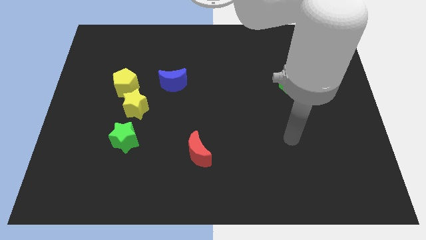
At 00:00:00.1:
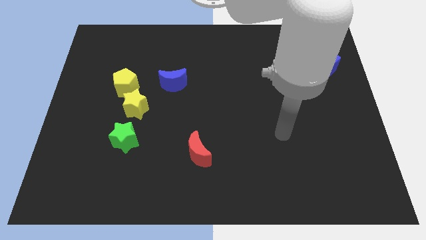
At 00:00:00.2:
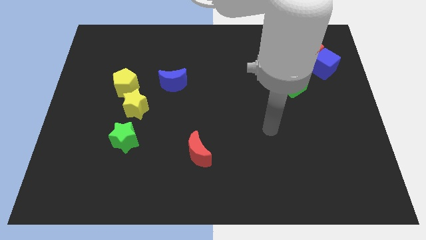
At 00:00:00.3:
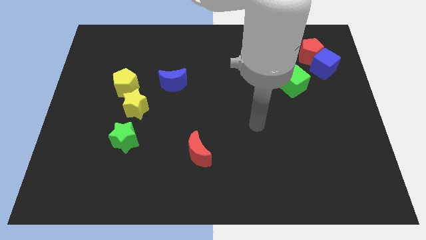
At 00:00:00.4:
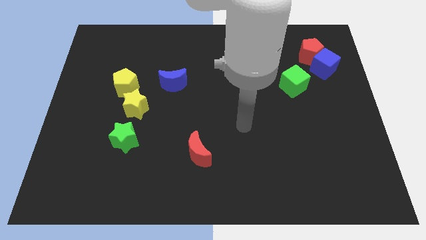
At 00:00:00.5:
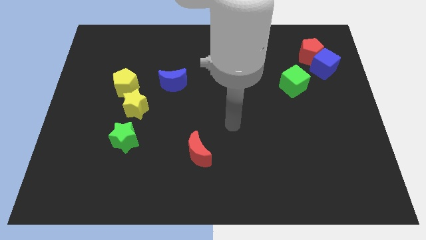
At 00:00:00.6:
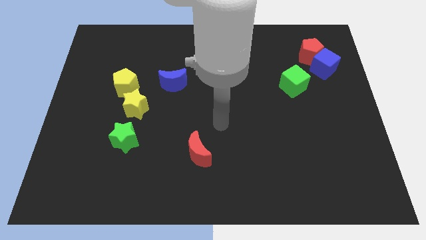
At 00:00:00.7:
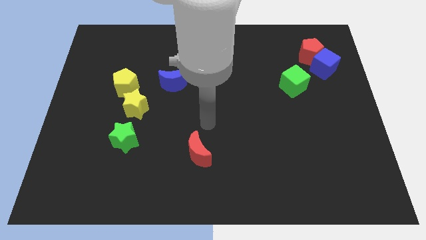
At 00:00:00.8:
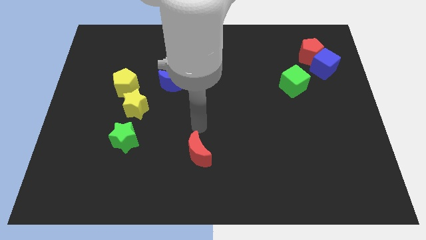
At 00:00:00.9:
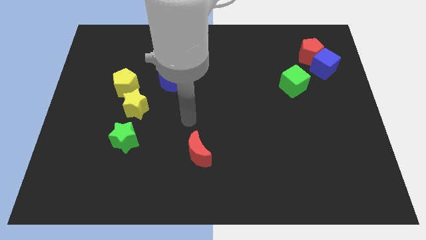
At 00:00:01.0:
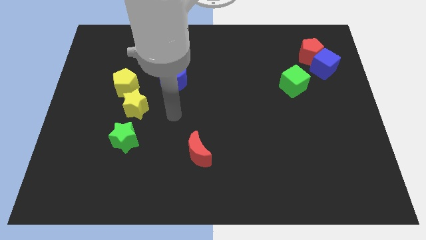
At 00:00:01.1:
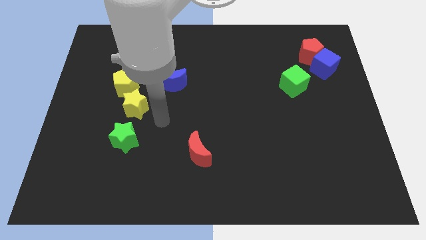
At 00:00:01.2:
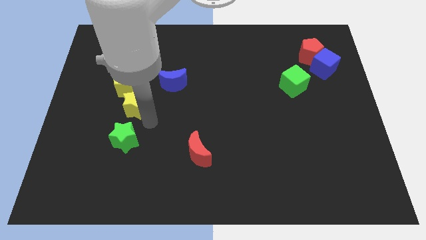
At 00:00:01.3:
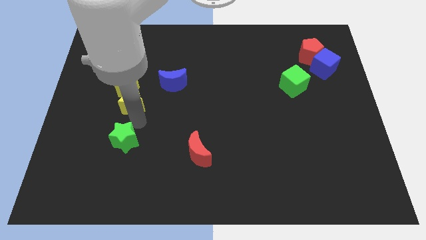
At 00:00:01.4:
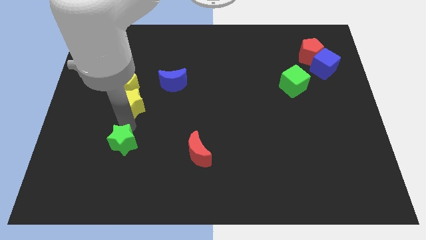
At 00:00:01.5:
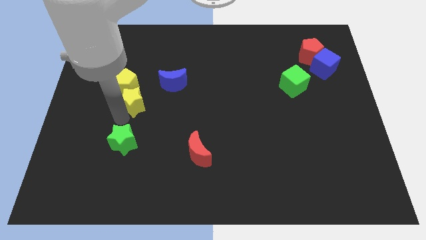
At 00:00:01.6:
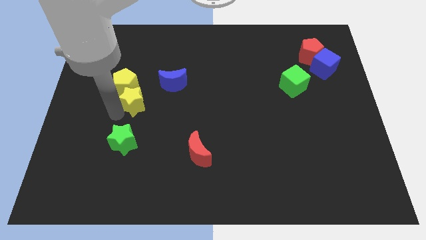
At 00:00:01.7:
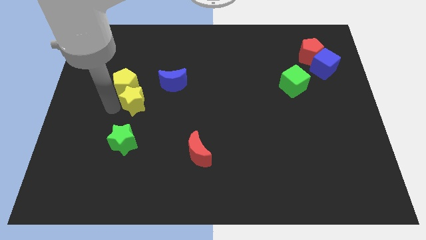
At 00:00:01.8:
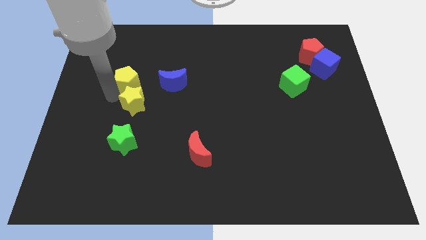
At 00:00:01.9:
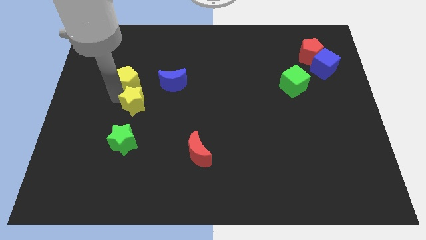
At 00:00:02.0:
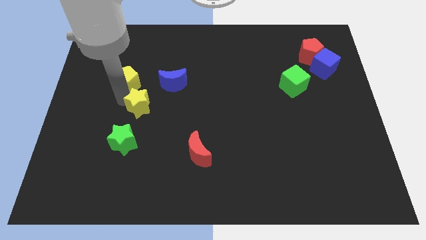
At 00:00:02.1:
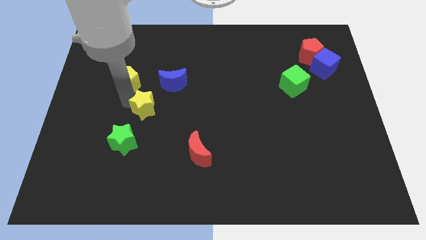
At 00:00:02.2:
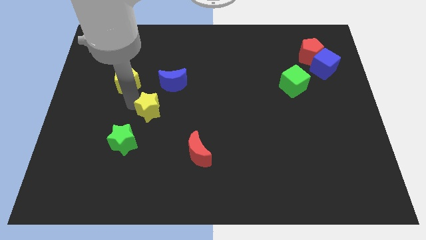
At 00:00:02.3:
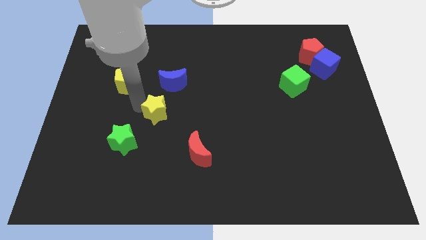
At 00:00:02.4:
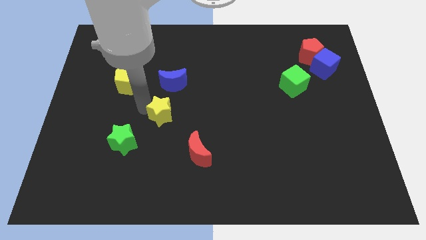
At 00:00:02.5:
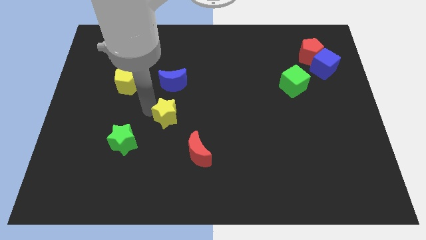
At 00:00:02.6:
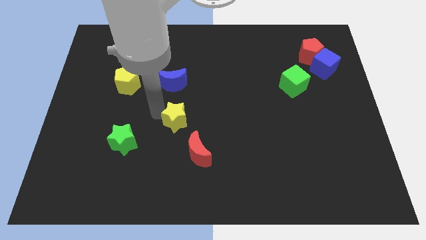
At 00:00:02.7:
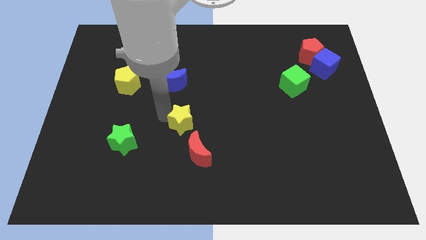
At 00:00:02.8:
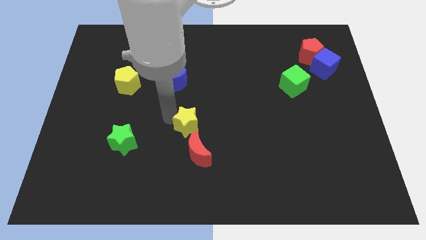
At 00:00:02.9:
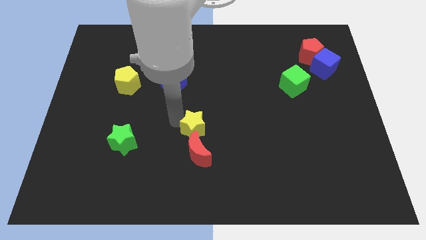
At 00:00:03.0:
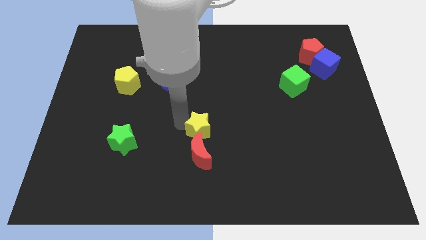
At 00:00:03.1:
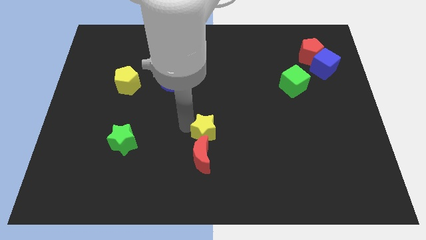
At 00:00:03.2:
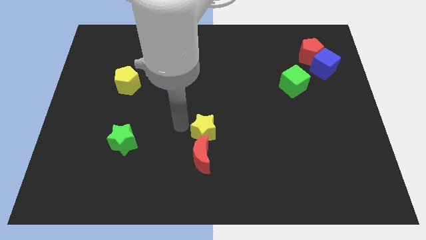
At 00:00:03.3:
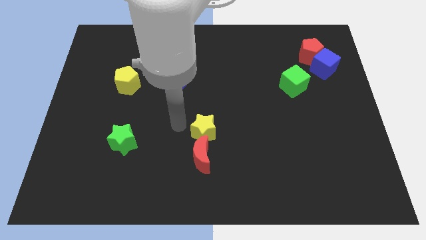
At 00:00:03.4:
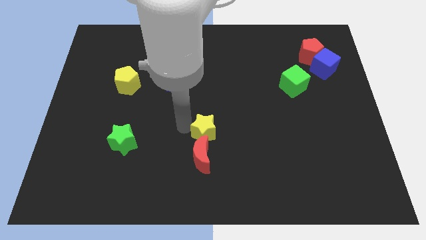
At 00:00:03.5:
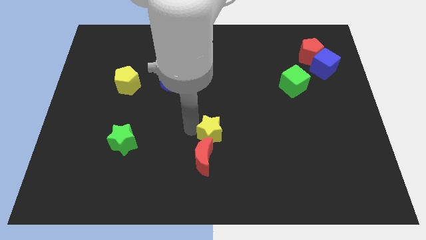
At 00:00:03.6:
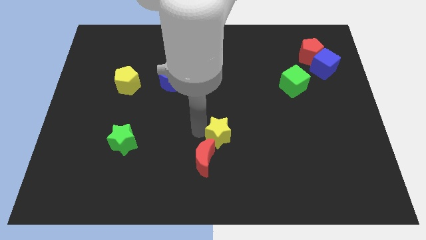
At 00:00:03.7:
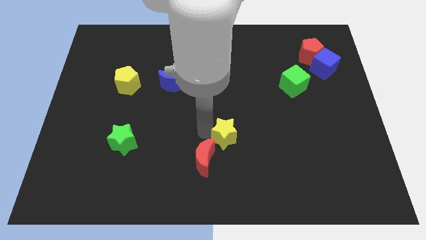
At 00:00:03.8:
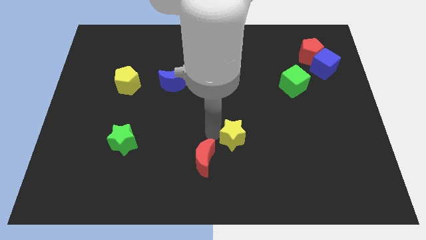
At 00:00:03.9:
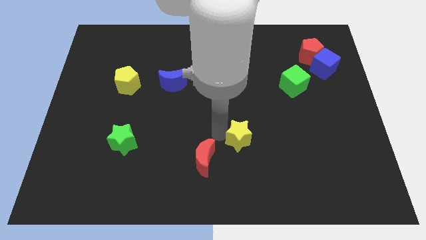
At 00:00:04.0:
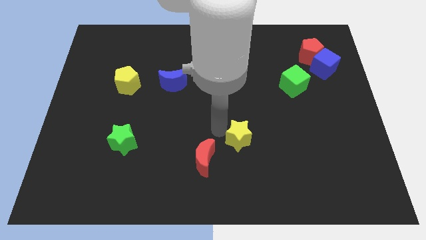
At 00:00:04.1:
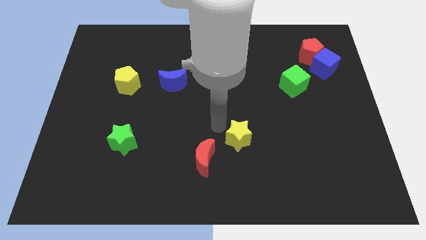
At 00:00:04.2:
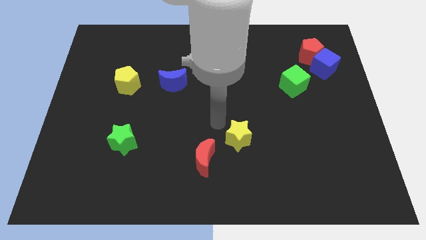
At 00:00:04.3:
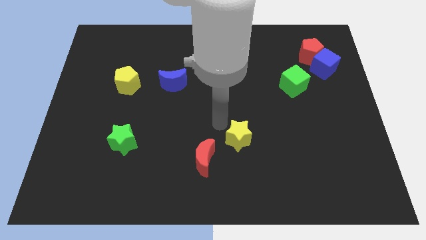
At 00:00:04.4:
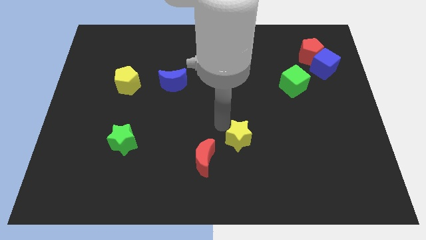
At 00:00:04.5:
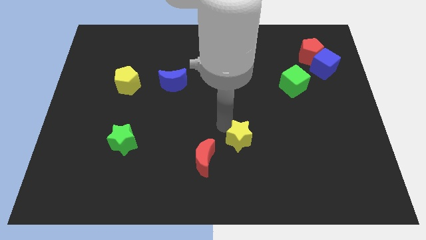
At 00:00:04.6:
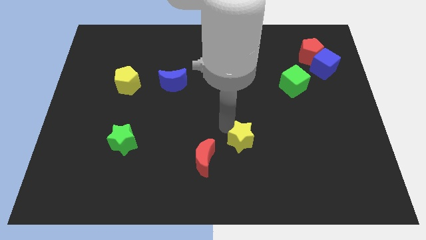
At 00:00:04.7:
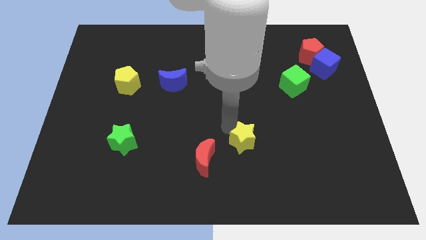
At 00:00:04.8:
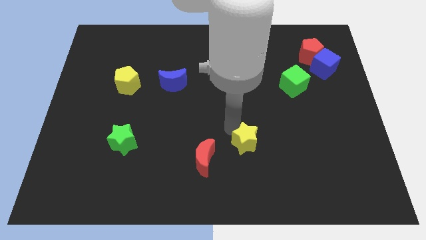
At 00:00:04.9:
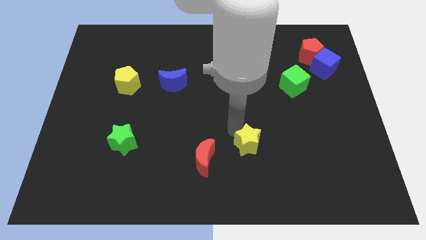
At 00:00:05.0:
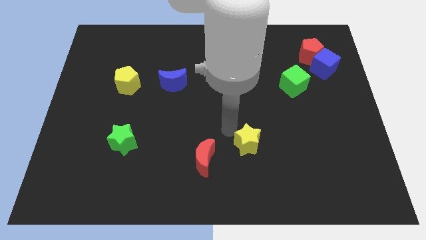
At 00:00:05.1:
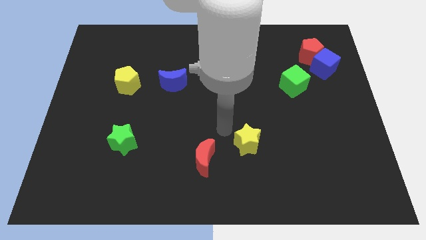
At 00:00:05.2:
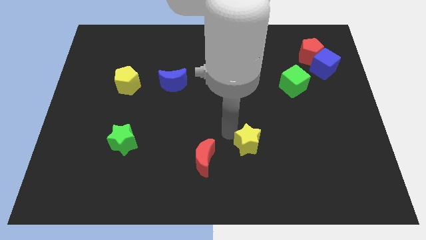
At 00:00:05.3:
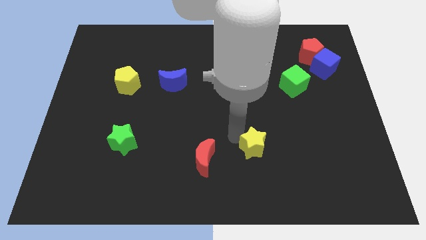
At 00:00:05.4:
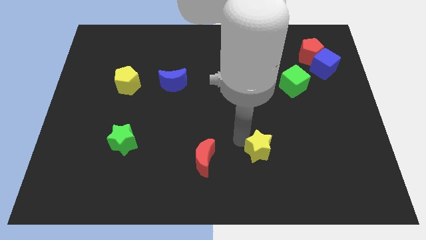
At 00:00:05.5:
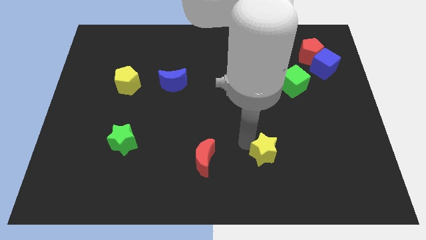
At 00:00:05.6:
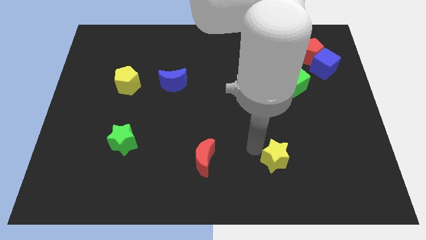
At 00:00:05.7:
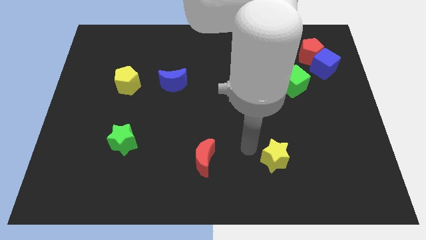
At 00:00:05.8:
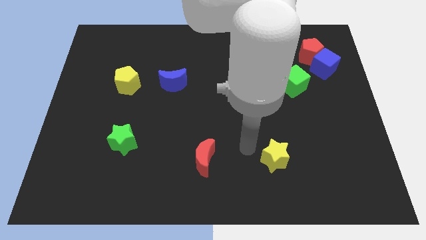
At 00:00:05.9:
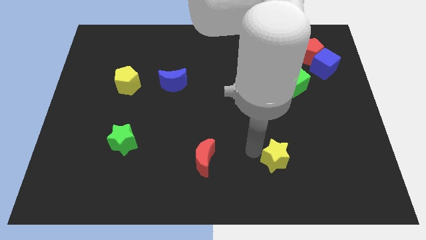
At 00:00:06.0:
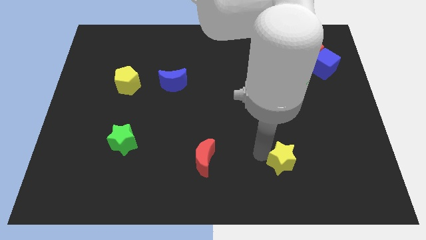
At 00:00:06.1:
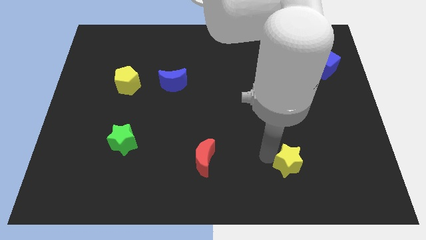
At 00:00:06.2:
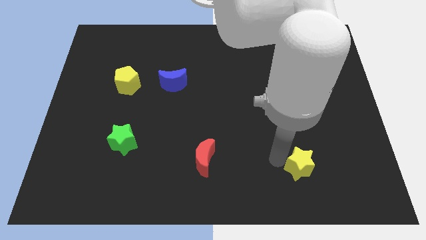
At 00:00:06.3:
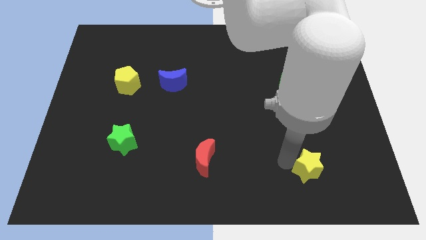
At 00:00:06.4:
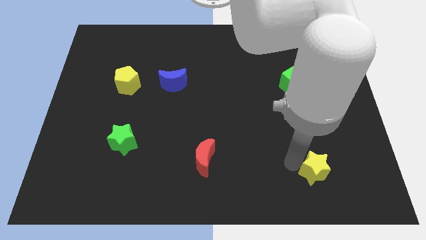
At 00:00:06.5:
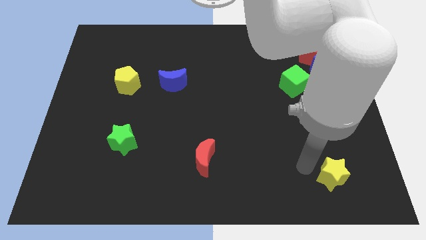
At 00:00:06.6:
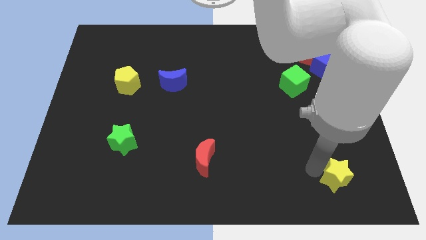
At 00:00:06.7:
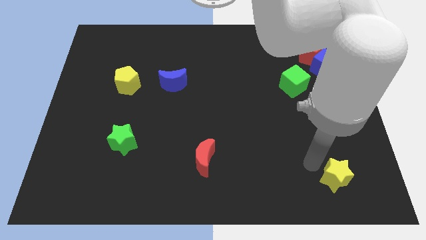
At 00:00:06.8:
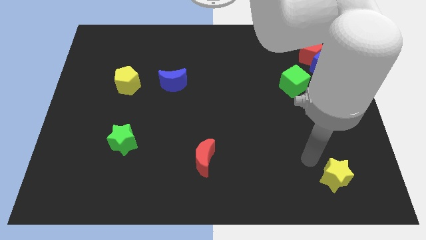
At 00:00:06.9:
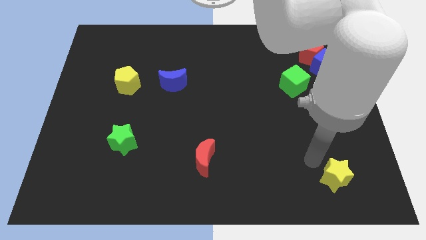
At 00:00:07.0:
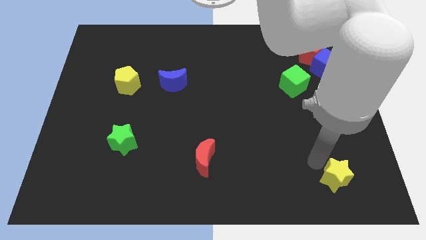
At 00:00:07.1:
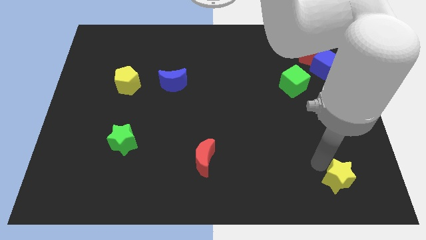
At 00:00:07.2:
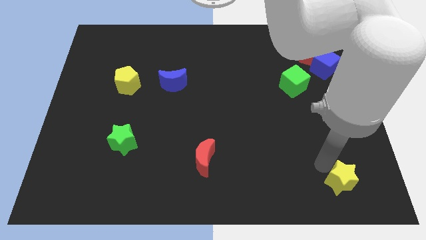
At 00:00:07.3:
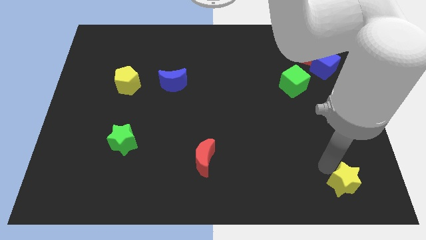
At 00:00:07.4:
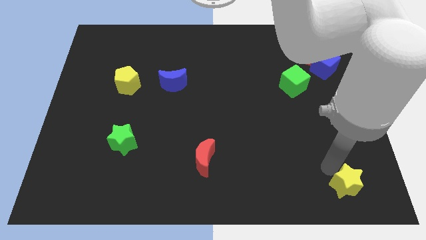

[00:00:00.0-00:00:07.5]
move the yellow star to the bottom right corner
